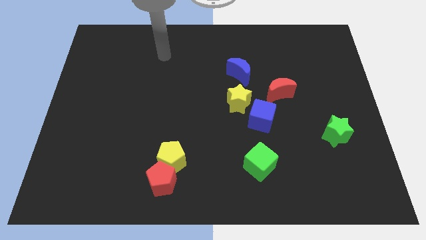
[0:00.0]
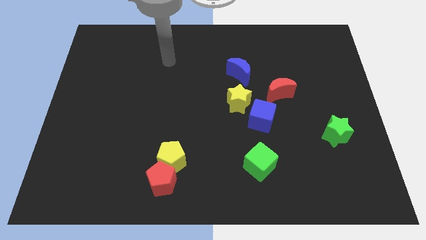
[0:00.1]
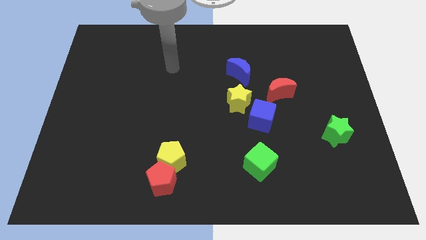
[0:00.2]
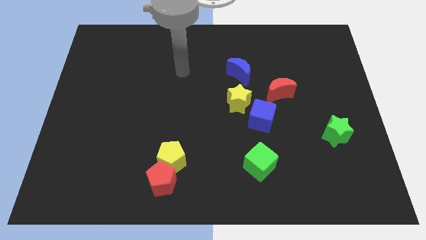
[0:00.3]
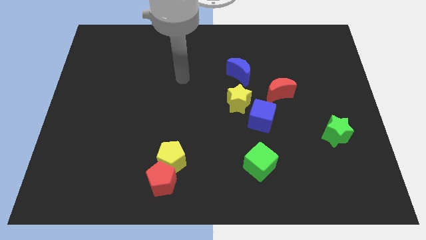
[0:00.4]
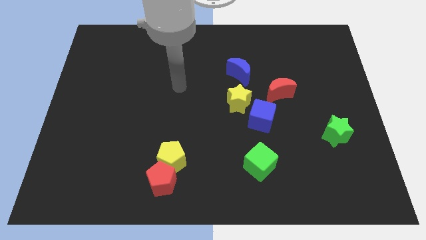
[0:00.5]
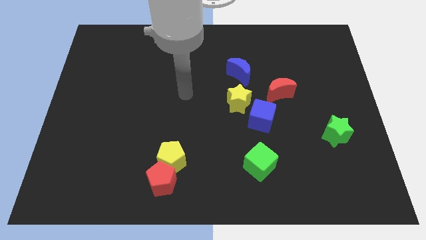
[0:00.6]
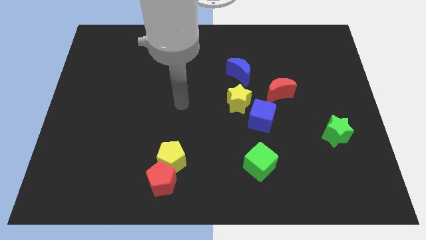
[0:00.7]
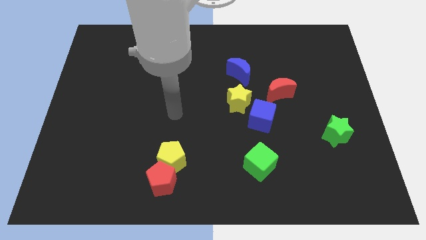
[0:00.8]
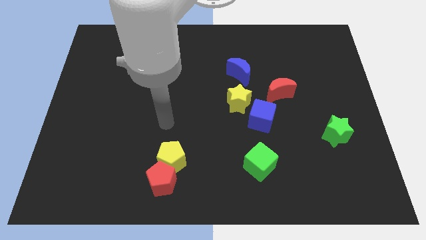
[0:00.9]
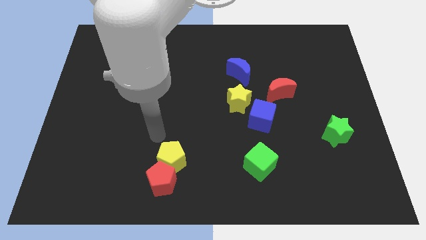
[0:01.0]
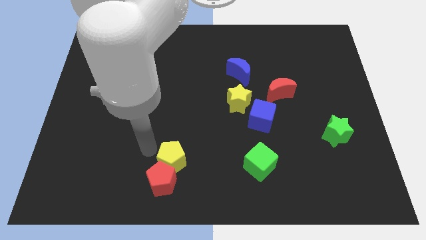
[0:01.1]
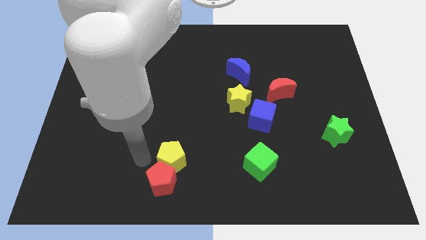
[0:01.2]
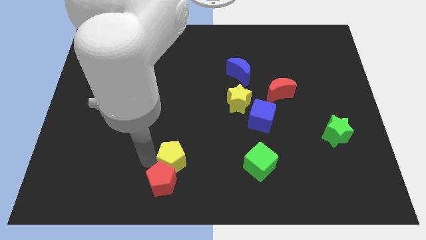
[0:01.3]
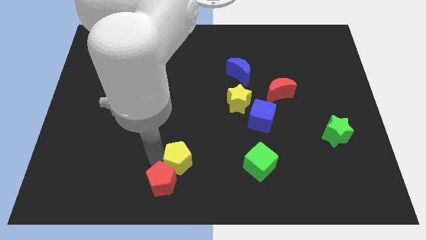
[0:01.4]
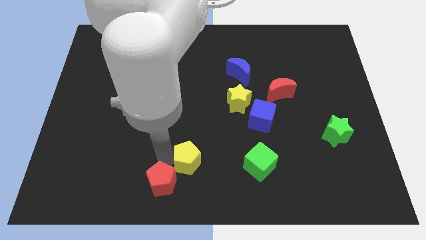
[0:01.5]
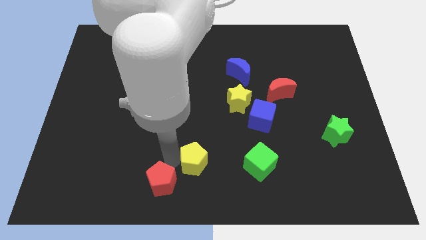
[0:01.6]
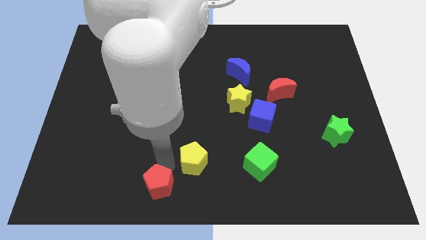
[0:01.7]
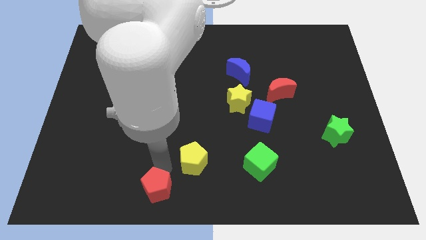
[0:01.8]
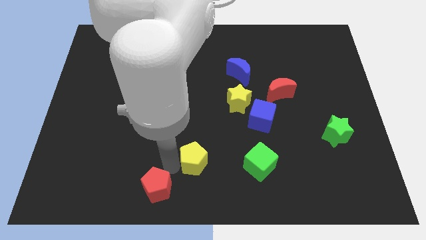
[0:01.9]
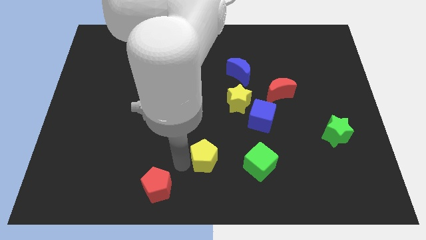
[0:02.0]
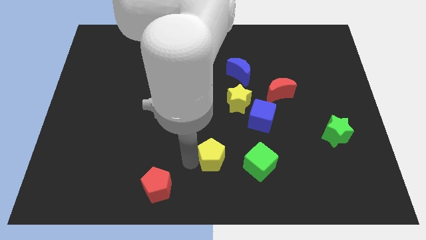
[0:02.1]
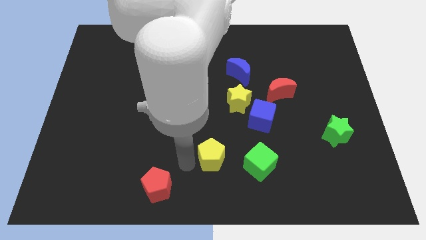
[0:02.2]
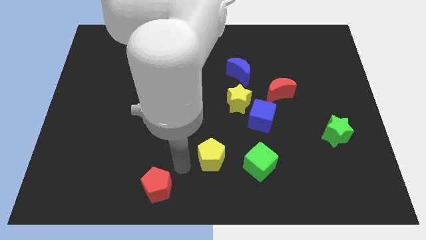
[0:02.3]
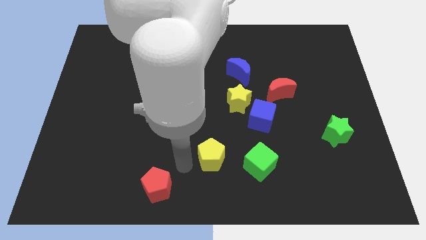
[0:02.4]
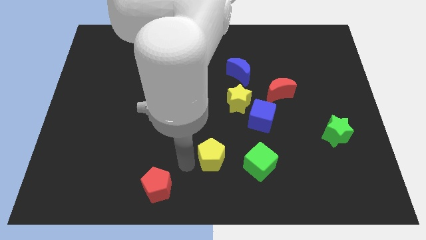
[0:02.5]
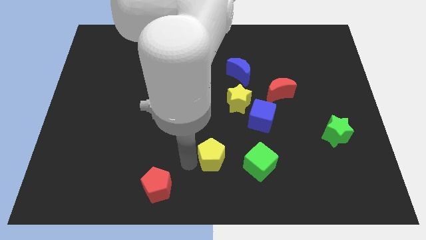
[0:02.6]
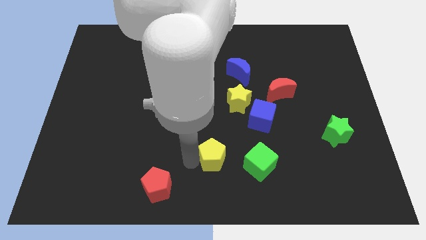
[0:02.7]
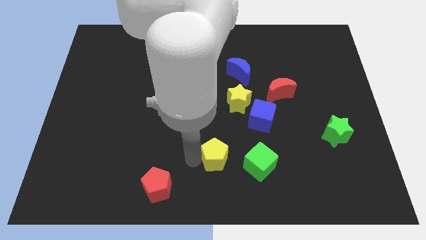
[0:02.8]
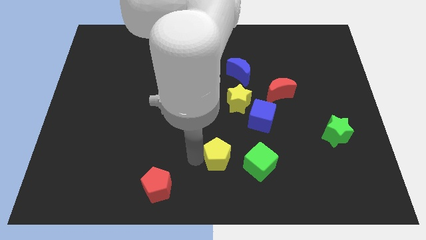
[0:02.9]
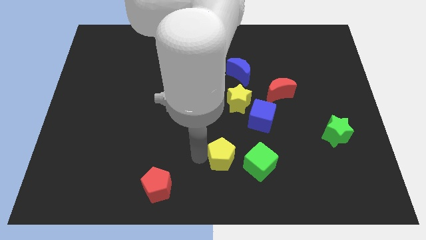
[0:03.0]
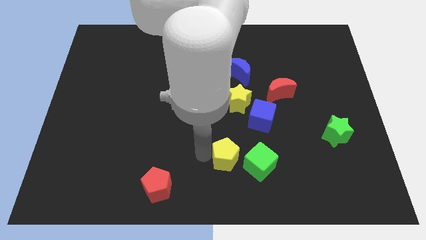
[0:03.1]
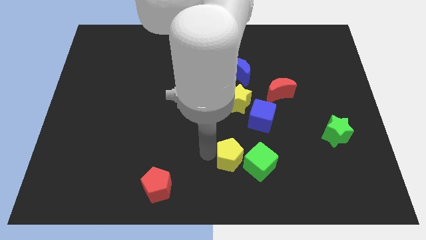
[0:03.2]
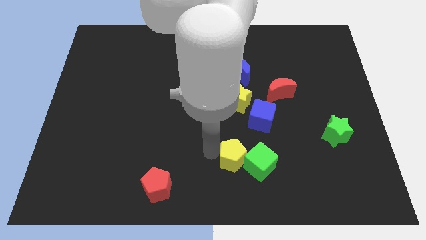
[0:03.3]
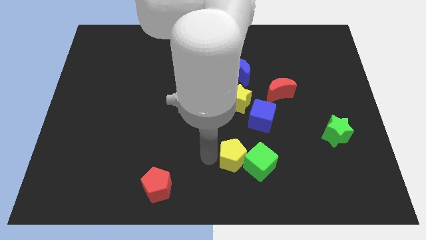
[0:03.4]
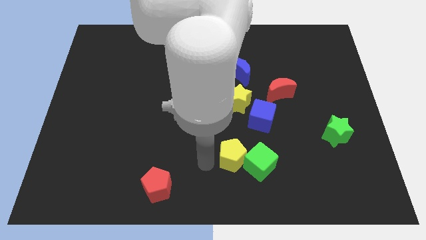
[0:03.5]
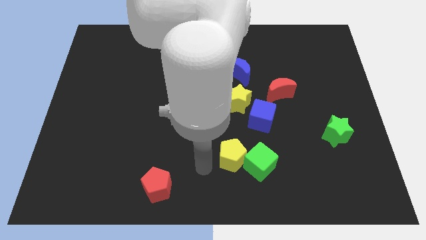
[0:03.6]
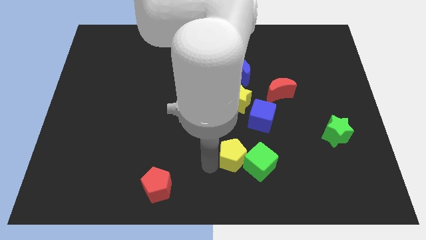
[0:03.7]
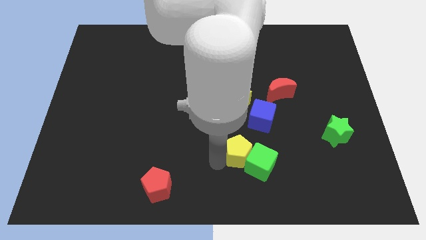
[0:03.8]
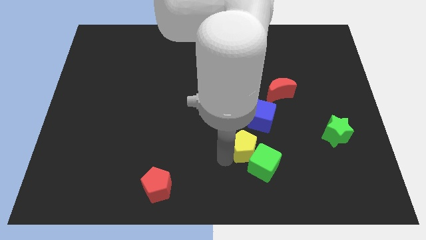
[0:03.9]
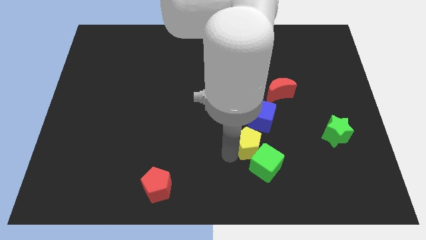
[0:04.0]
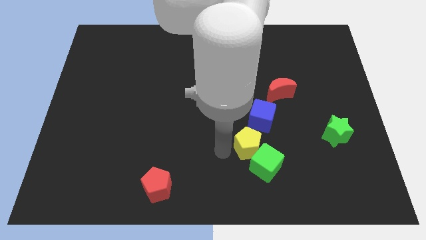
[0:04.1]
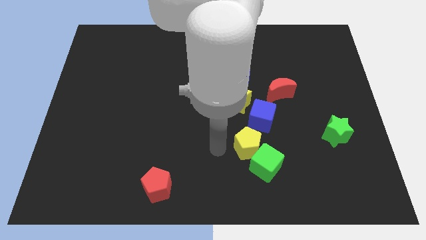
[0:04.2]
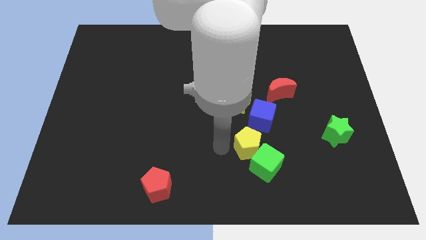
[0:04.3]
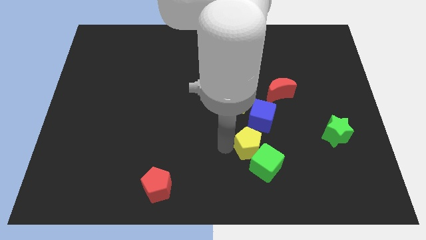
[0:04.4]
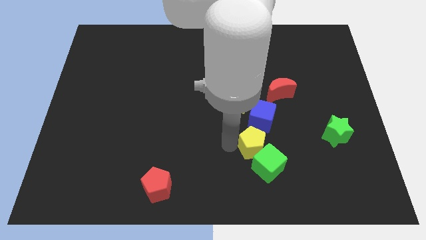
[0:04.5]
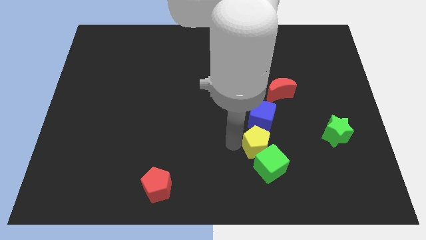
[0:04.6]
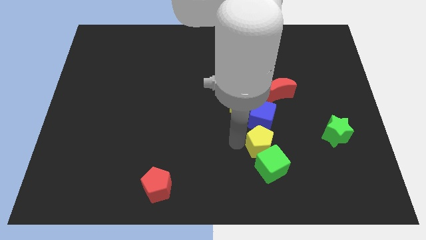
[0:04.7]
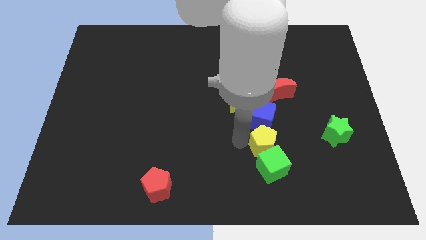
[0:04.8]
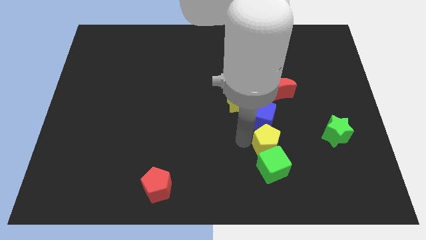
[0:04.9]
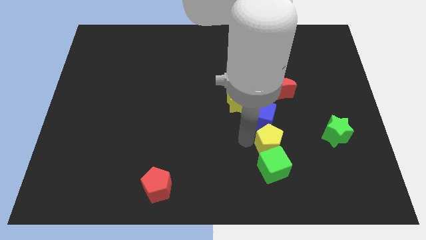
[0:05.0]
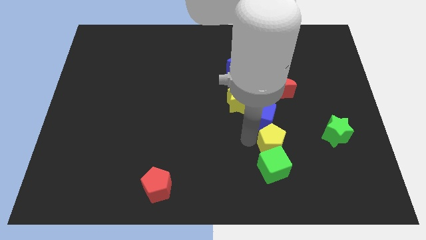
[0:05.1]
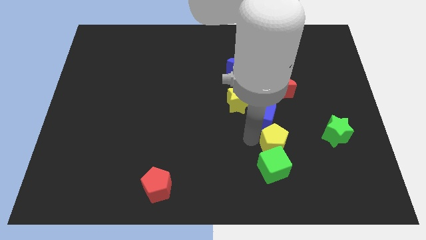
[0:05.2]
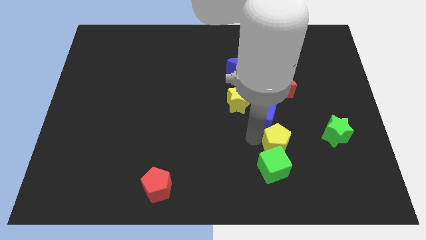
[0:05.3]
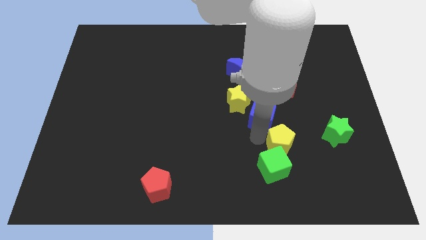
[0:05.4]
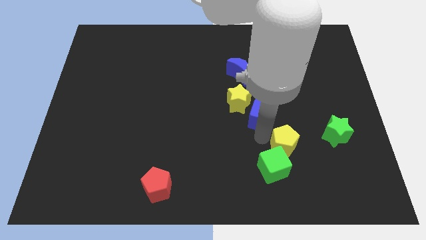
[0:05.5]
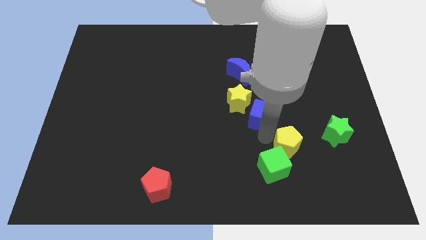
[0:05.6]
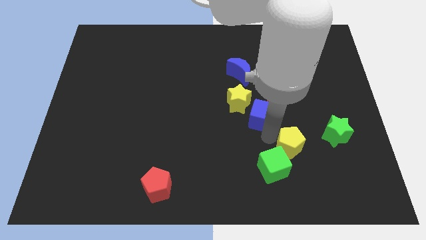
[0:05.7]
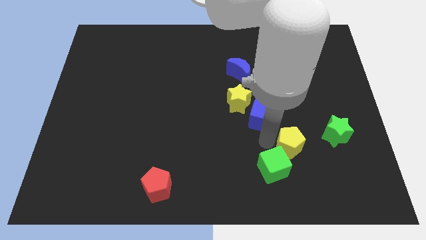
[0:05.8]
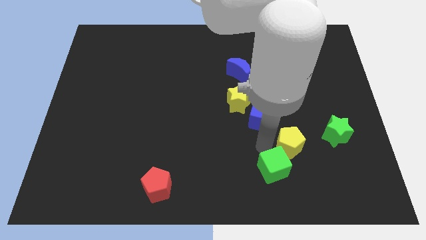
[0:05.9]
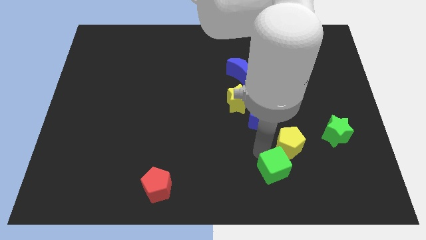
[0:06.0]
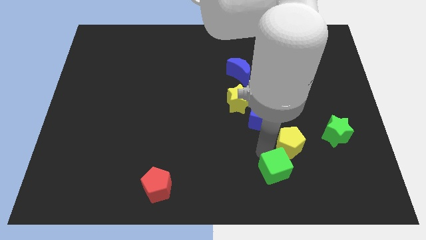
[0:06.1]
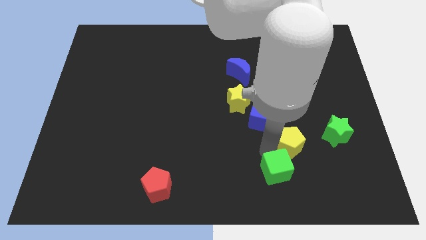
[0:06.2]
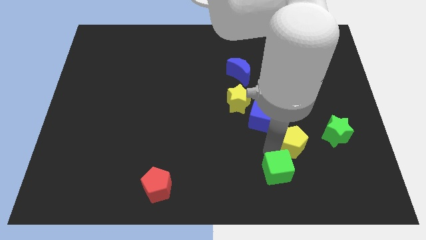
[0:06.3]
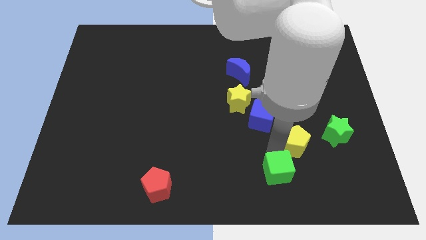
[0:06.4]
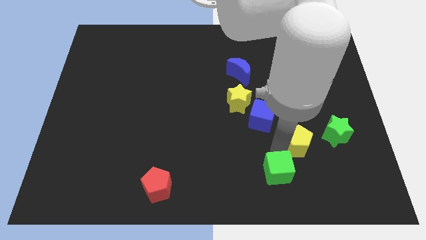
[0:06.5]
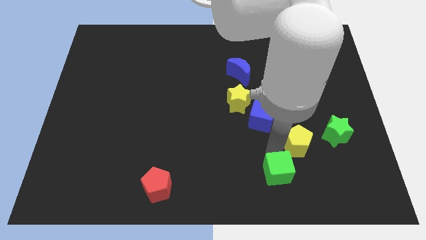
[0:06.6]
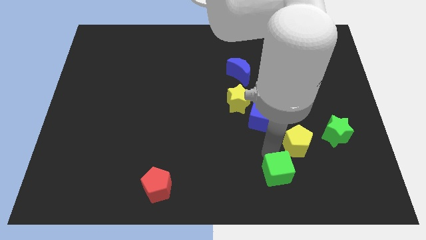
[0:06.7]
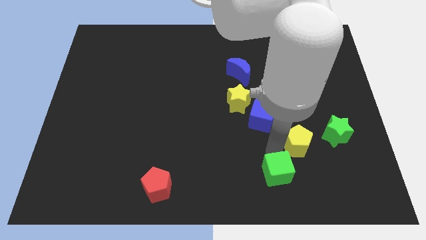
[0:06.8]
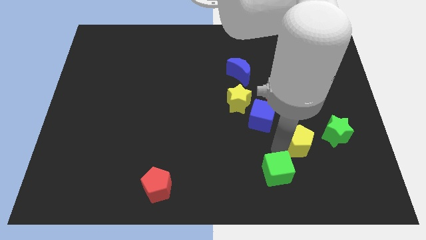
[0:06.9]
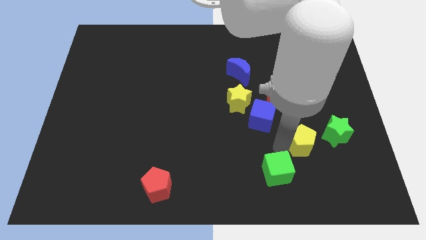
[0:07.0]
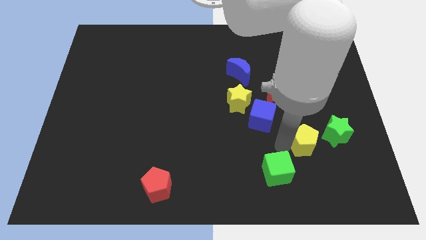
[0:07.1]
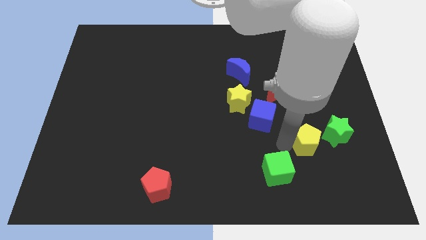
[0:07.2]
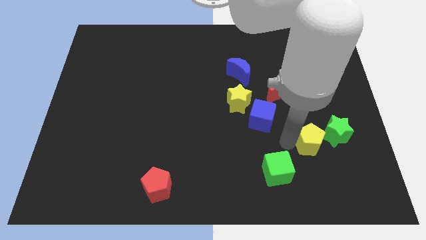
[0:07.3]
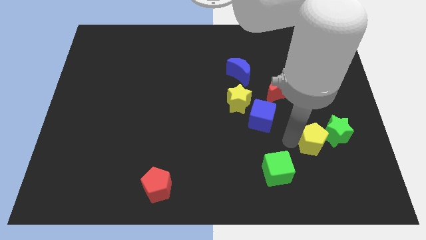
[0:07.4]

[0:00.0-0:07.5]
put the yellow pentagon towards the green star
